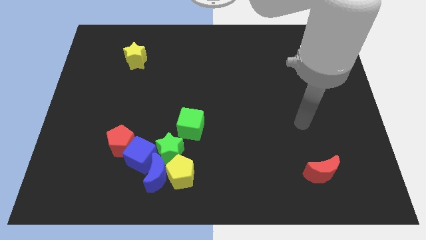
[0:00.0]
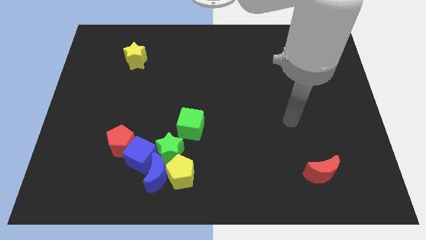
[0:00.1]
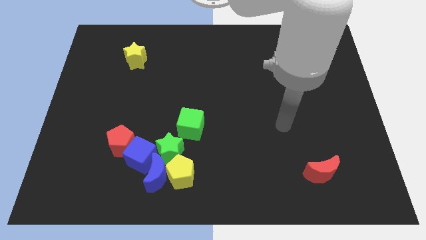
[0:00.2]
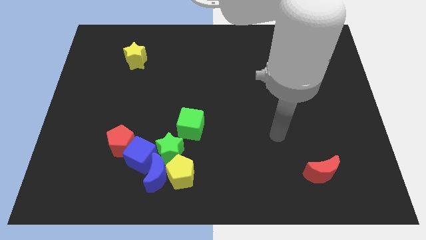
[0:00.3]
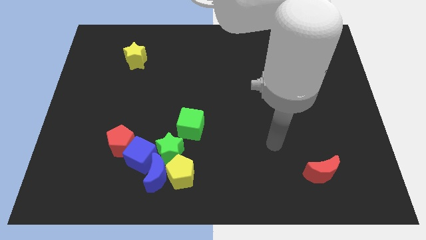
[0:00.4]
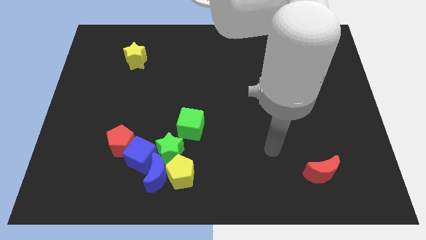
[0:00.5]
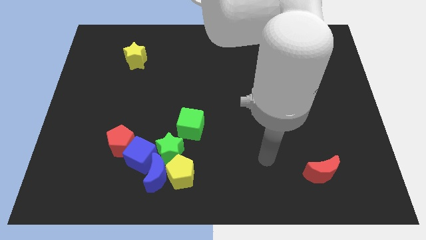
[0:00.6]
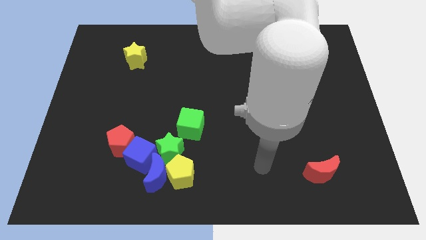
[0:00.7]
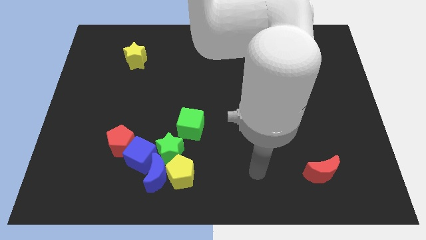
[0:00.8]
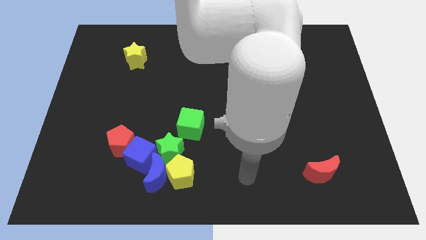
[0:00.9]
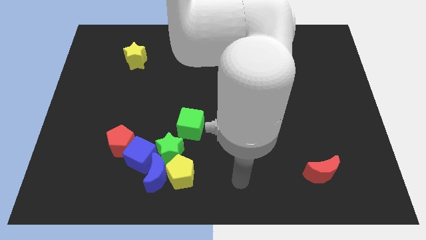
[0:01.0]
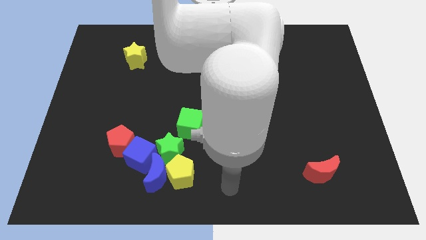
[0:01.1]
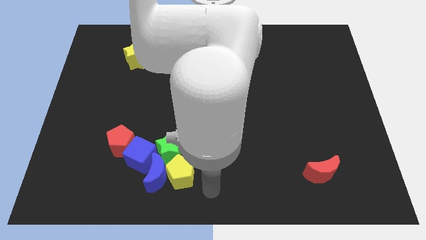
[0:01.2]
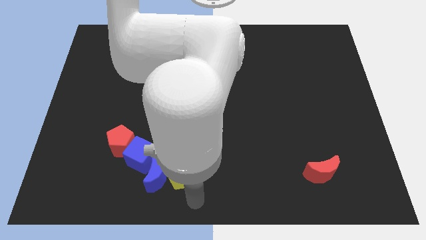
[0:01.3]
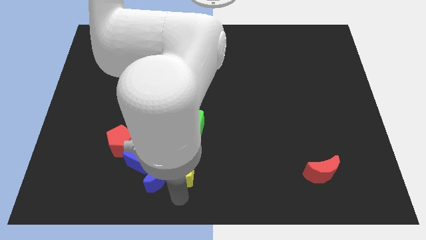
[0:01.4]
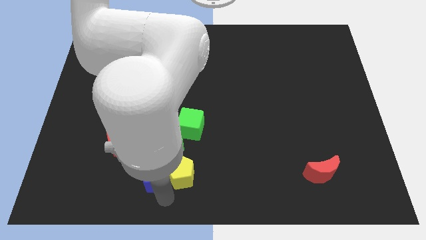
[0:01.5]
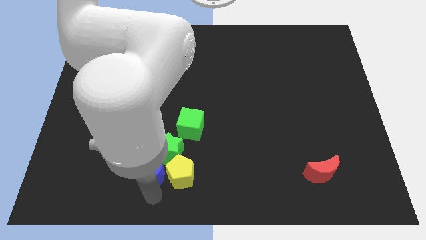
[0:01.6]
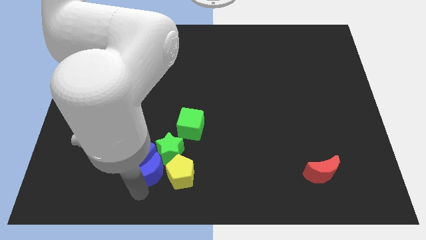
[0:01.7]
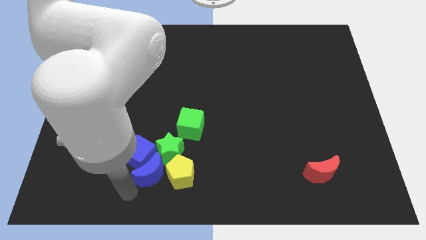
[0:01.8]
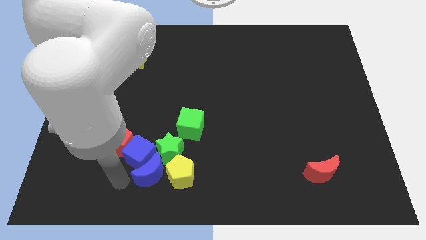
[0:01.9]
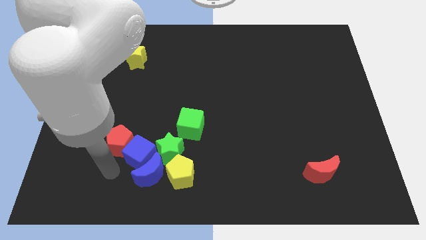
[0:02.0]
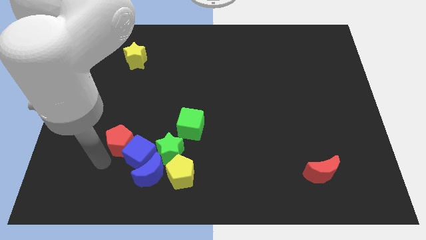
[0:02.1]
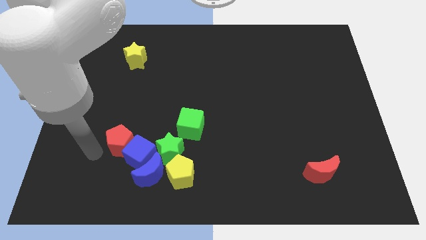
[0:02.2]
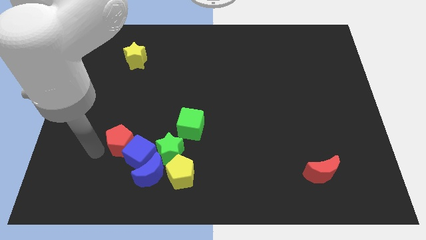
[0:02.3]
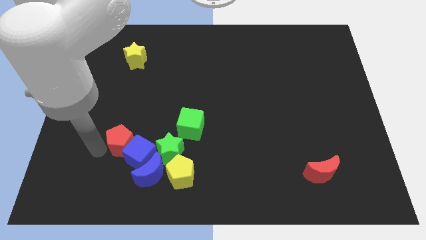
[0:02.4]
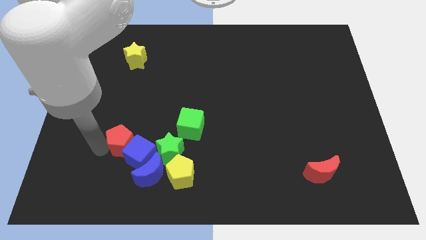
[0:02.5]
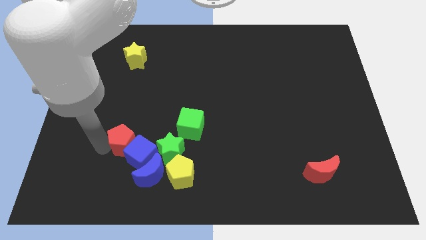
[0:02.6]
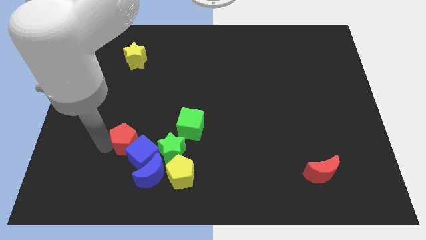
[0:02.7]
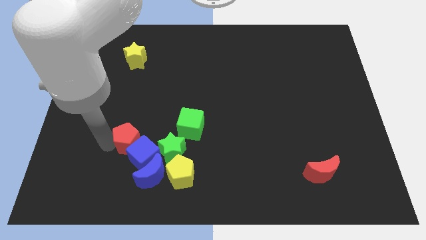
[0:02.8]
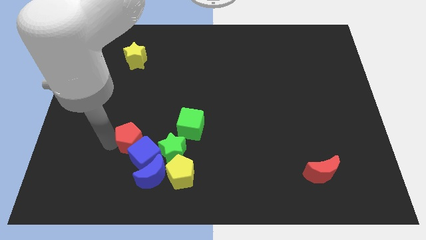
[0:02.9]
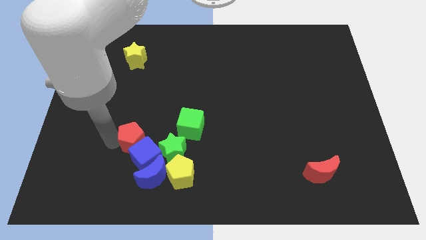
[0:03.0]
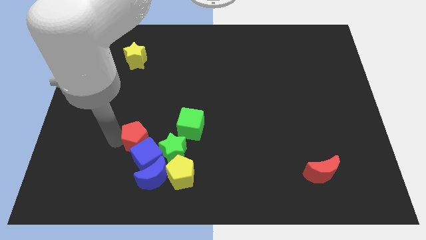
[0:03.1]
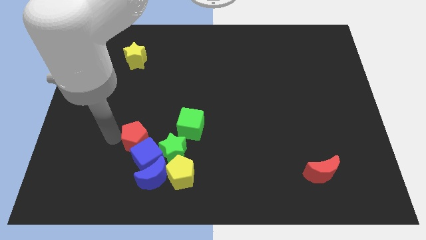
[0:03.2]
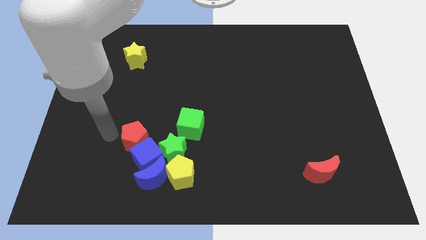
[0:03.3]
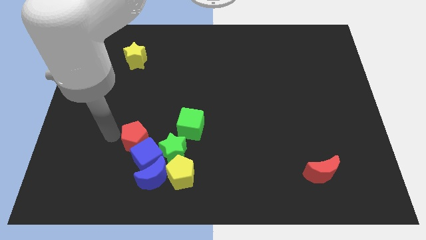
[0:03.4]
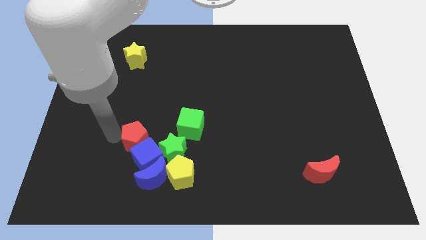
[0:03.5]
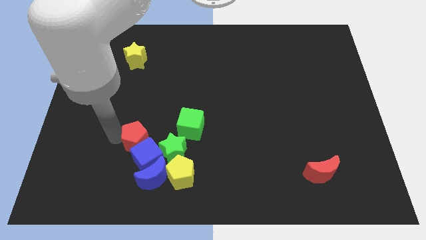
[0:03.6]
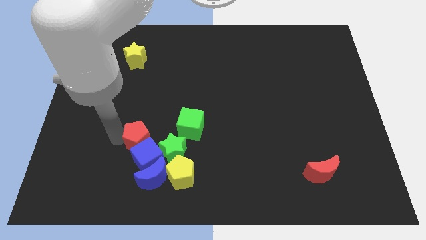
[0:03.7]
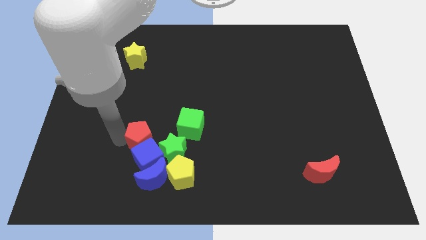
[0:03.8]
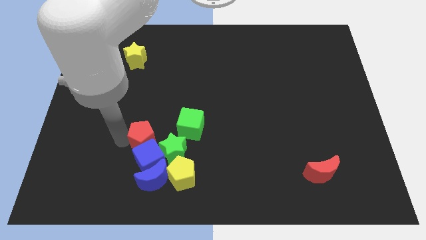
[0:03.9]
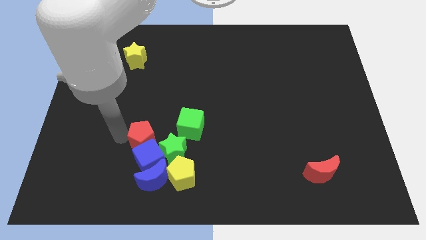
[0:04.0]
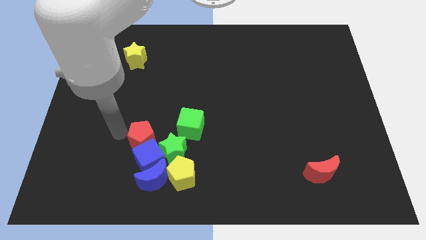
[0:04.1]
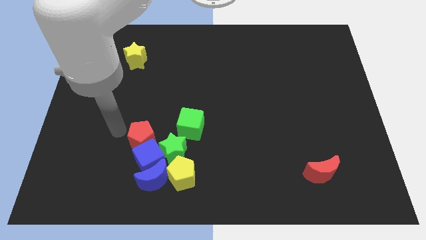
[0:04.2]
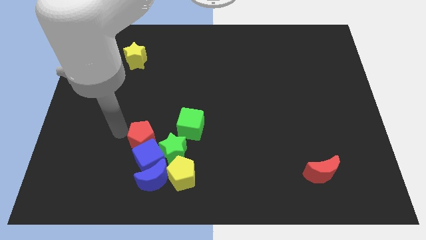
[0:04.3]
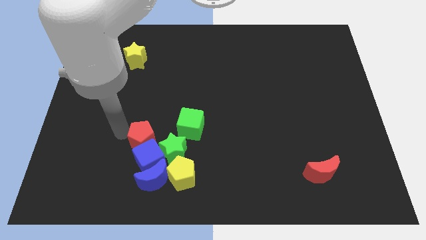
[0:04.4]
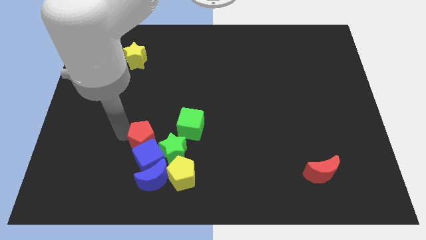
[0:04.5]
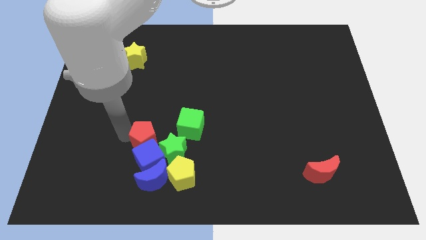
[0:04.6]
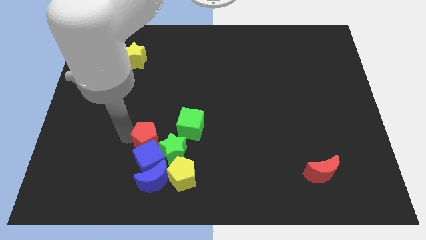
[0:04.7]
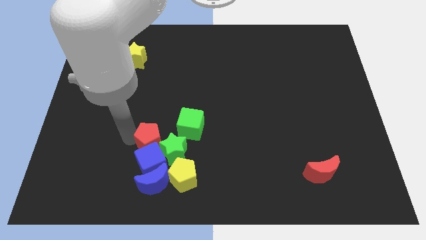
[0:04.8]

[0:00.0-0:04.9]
move the red pentagon close to the green star

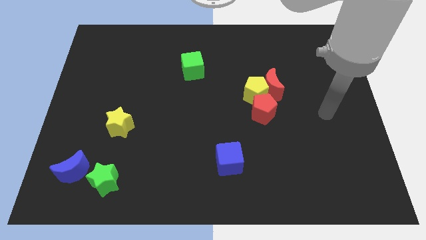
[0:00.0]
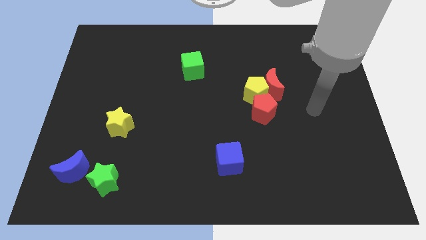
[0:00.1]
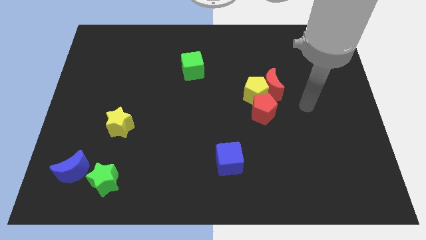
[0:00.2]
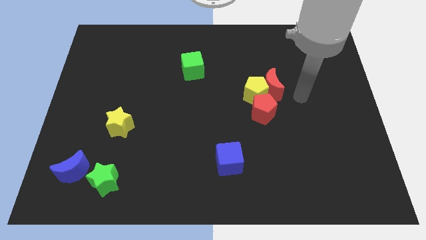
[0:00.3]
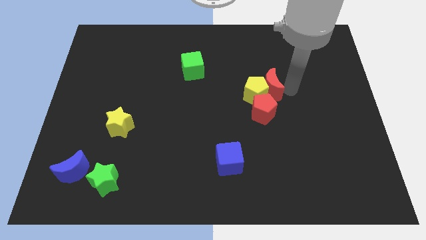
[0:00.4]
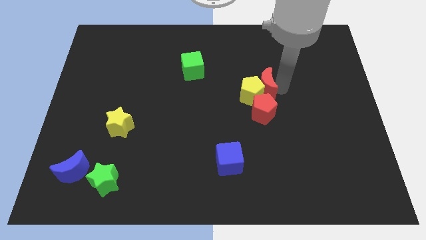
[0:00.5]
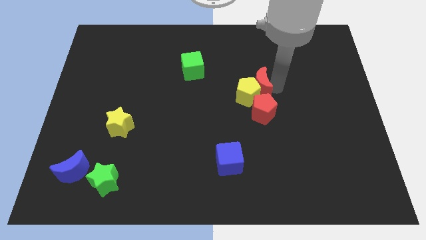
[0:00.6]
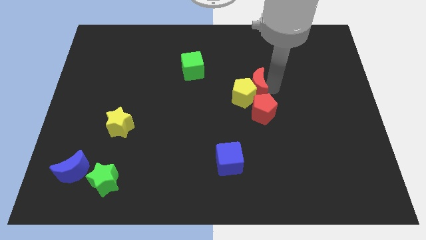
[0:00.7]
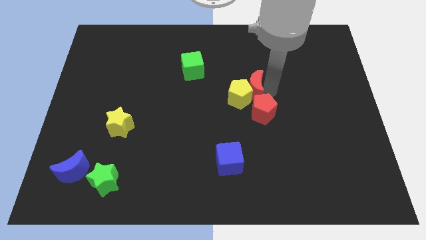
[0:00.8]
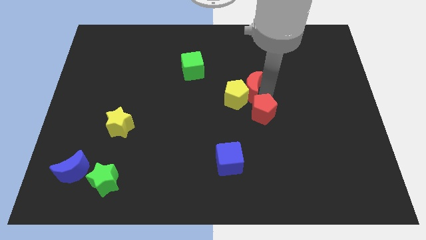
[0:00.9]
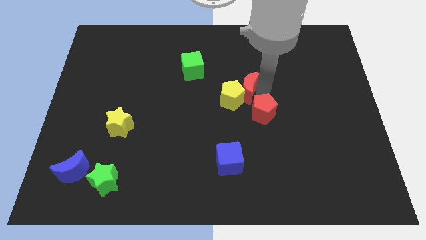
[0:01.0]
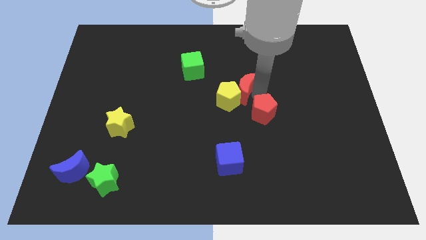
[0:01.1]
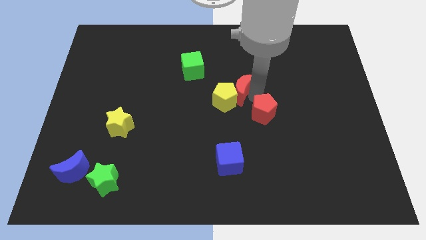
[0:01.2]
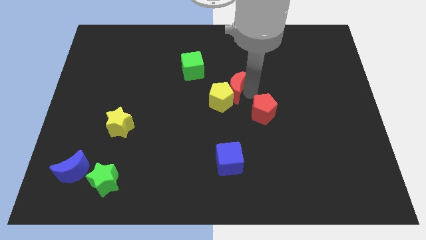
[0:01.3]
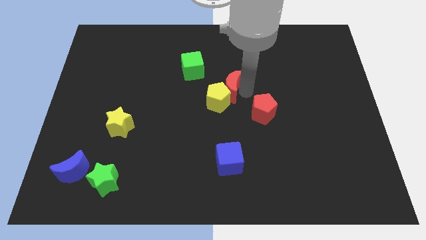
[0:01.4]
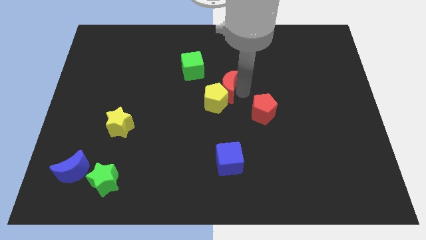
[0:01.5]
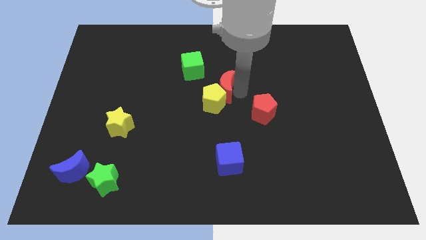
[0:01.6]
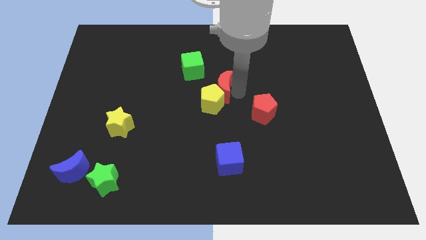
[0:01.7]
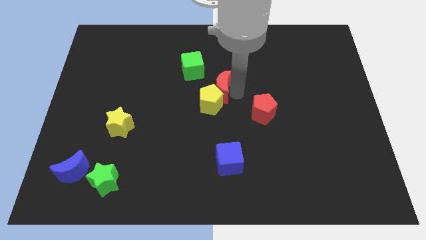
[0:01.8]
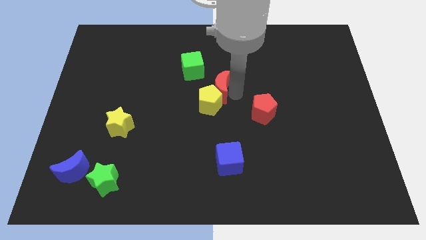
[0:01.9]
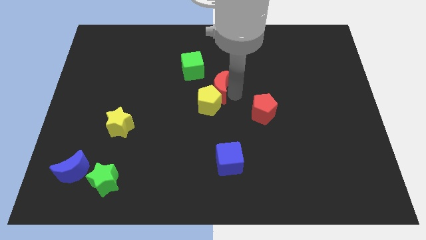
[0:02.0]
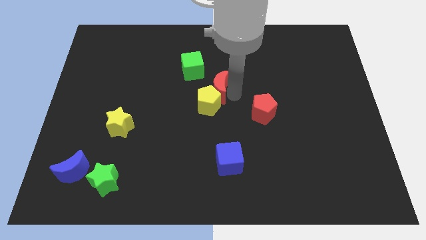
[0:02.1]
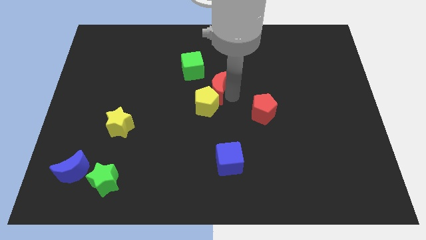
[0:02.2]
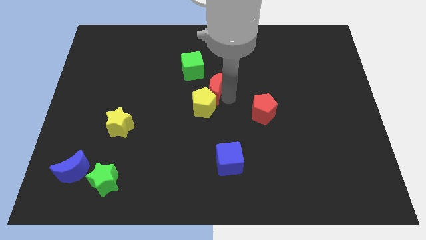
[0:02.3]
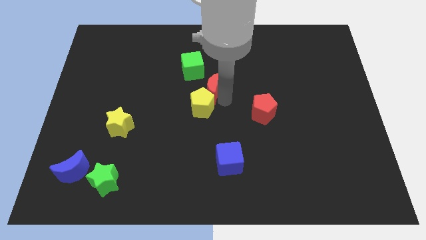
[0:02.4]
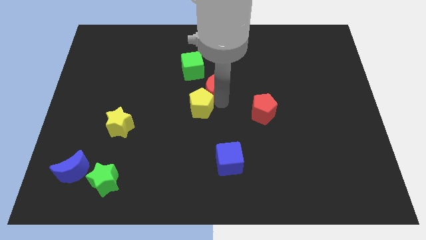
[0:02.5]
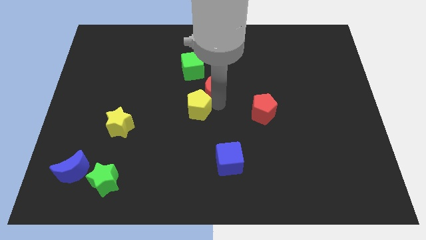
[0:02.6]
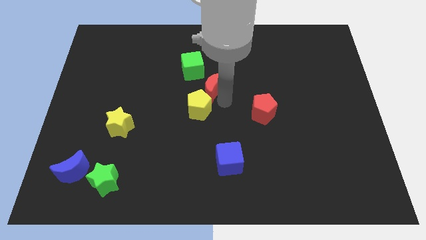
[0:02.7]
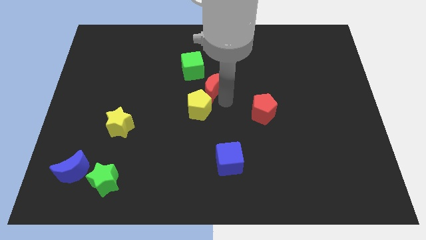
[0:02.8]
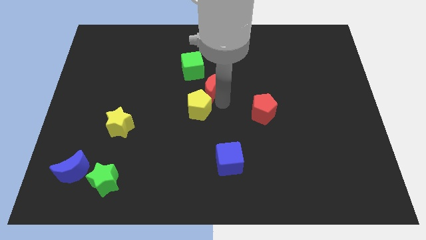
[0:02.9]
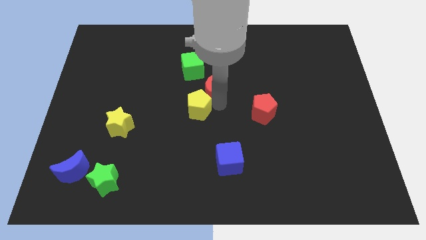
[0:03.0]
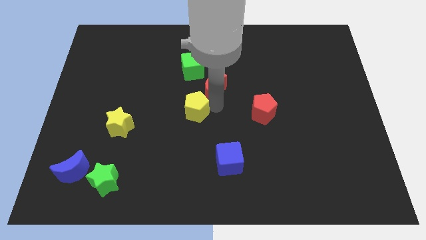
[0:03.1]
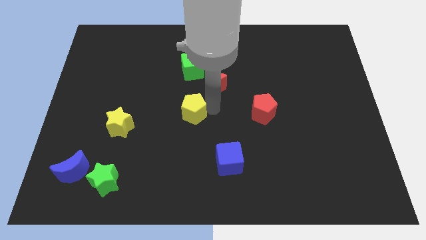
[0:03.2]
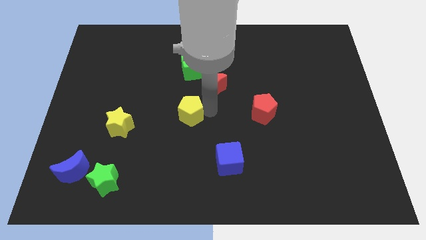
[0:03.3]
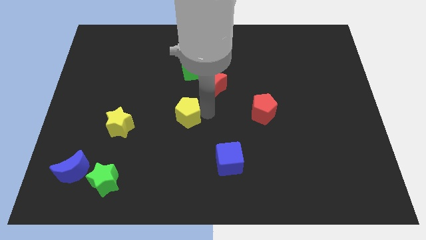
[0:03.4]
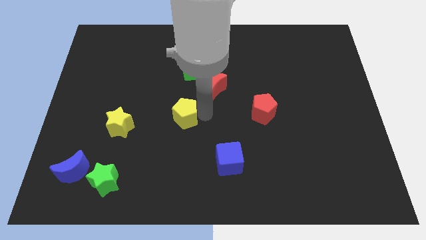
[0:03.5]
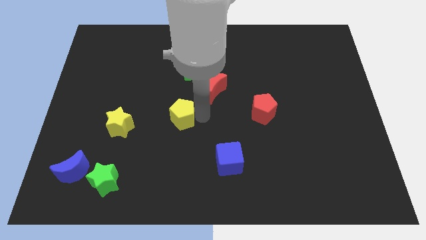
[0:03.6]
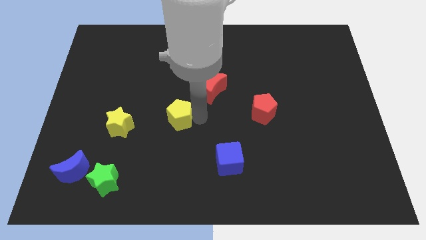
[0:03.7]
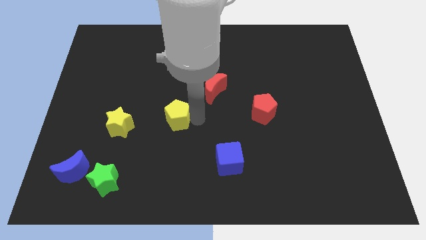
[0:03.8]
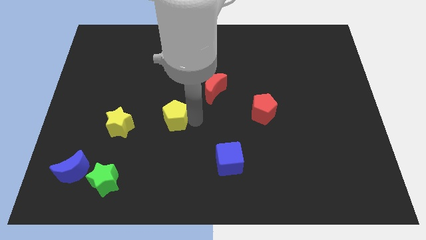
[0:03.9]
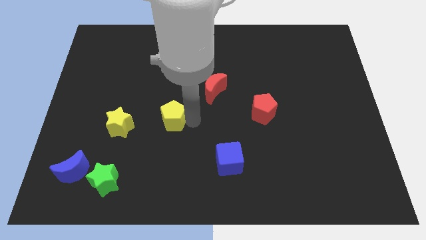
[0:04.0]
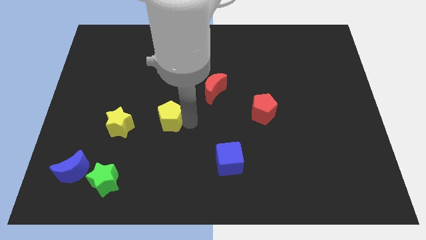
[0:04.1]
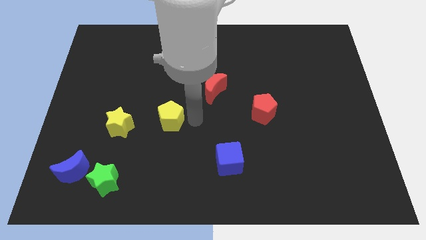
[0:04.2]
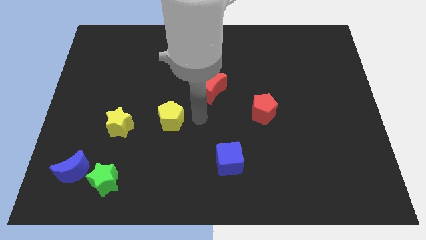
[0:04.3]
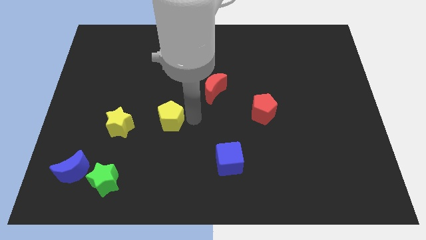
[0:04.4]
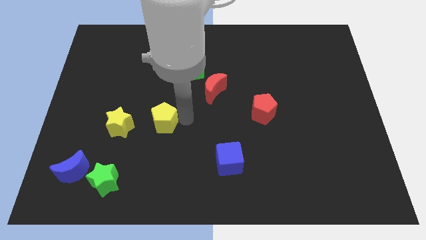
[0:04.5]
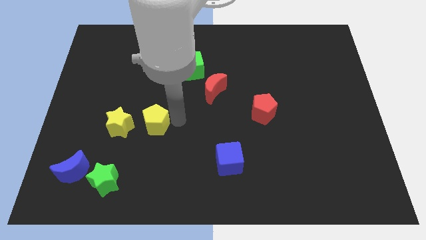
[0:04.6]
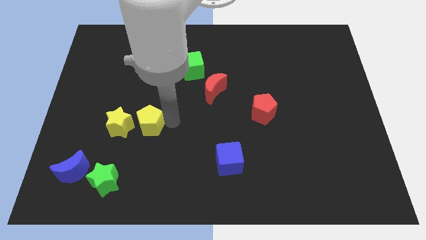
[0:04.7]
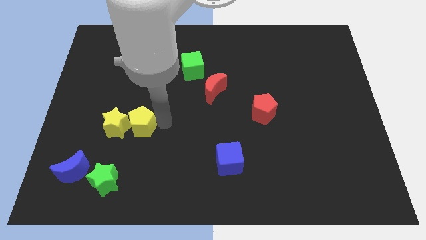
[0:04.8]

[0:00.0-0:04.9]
put the yellow pentagon to the yellow star
